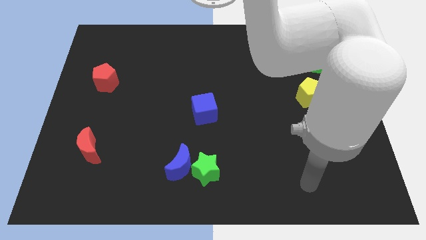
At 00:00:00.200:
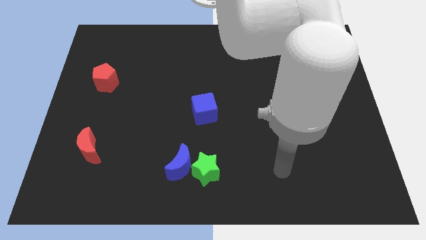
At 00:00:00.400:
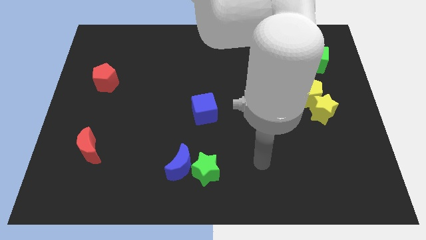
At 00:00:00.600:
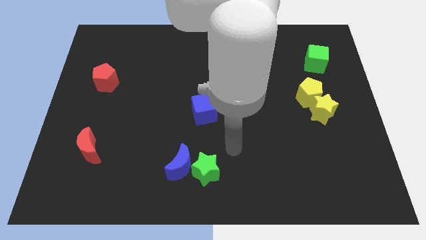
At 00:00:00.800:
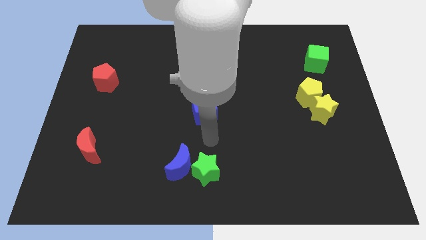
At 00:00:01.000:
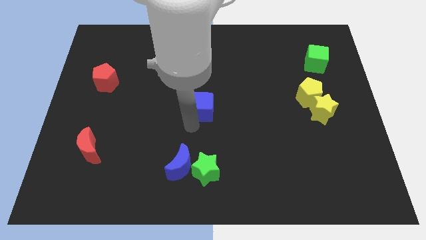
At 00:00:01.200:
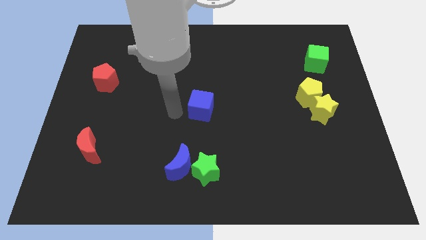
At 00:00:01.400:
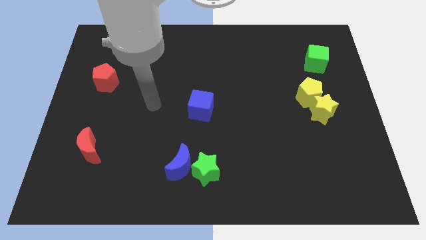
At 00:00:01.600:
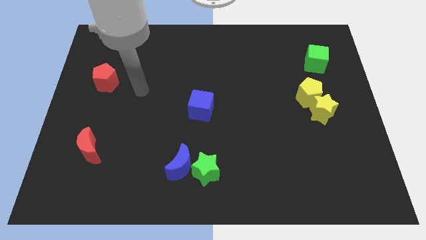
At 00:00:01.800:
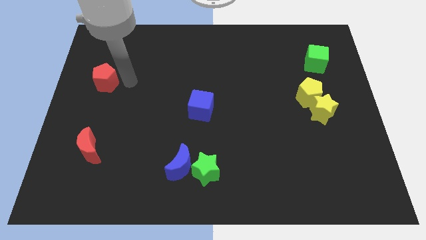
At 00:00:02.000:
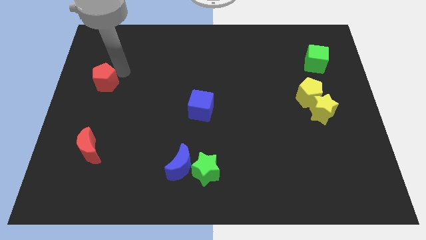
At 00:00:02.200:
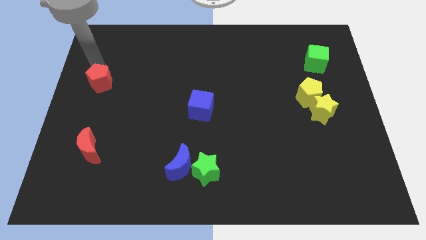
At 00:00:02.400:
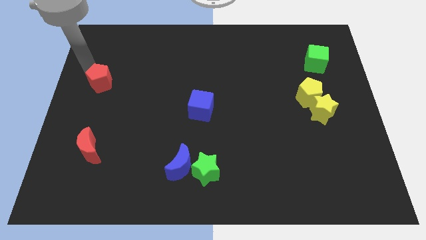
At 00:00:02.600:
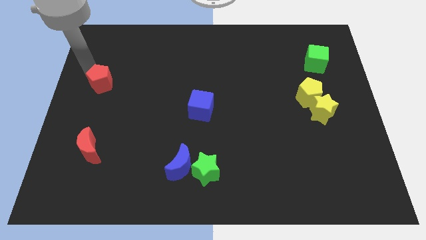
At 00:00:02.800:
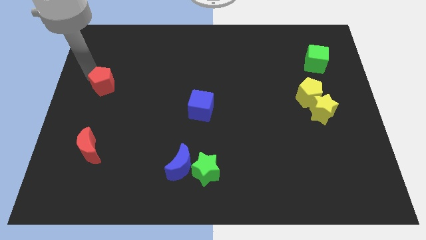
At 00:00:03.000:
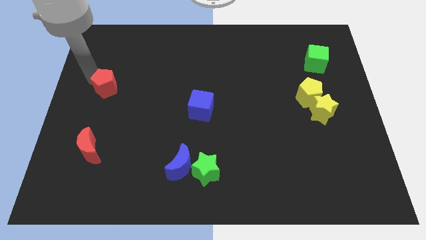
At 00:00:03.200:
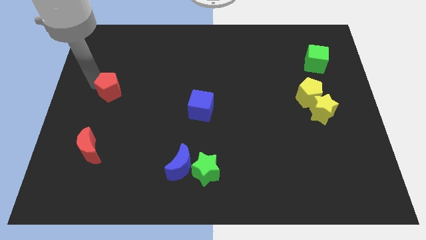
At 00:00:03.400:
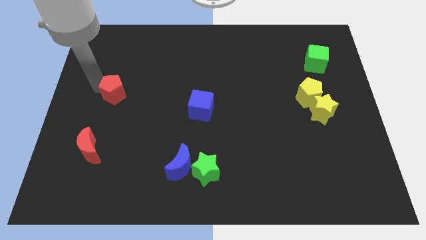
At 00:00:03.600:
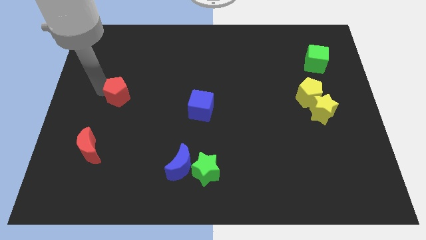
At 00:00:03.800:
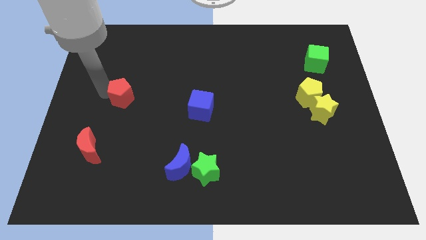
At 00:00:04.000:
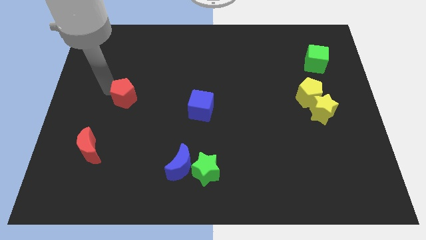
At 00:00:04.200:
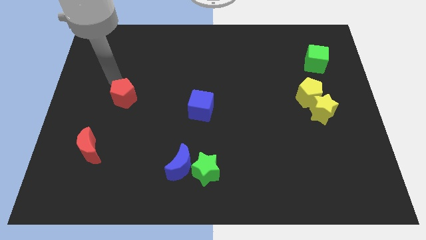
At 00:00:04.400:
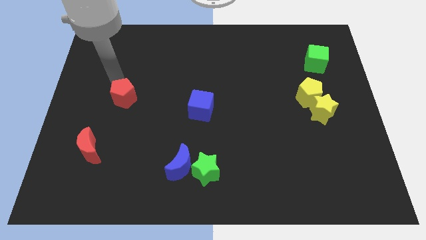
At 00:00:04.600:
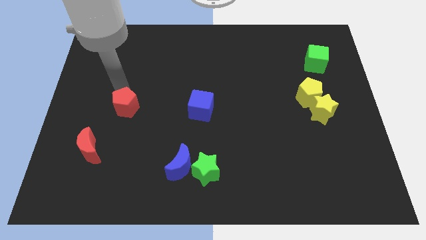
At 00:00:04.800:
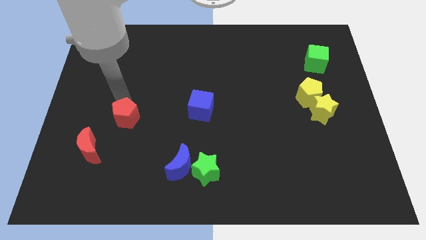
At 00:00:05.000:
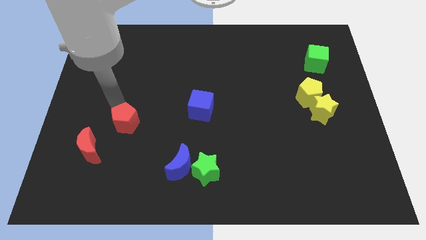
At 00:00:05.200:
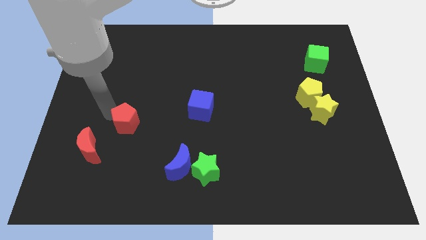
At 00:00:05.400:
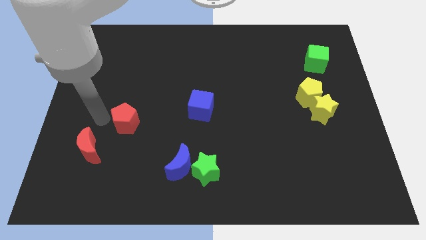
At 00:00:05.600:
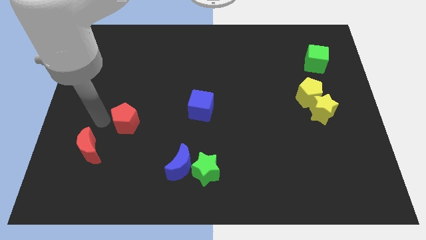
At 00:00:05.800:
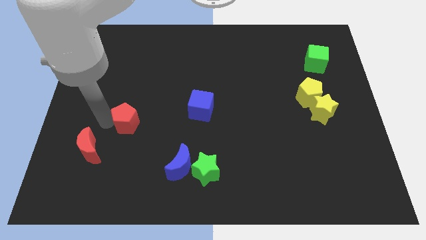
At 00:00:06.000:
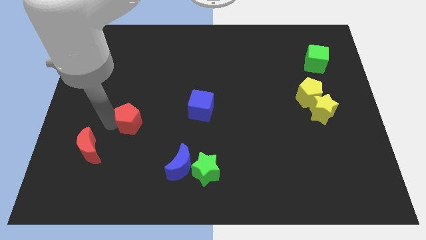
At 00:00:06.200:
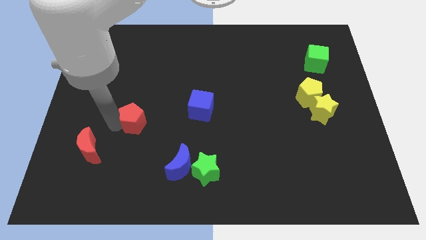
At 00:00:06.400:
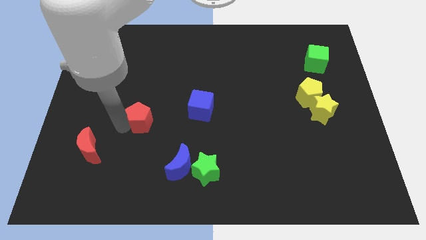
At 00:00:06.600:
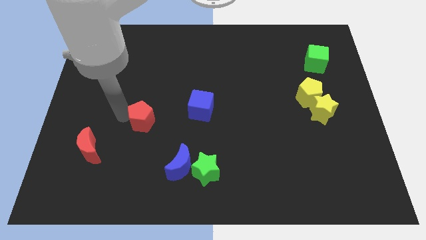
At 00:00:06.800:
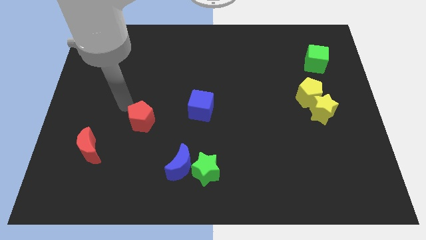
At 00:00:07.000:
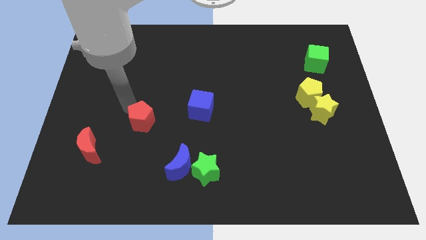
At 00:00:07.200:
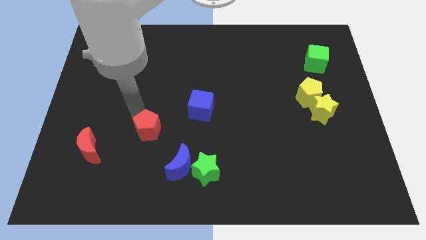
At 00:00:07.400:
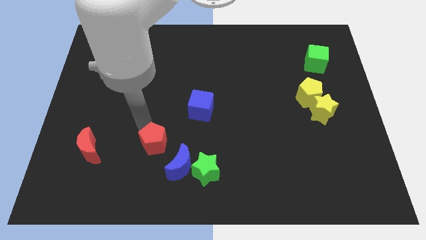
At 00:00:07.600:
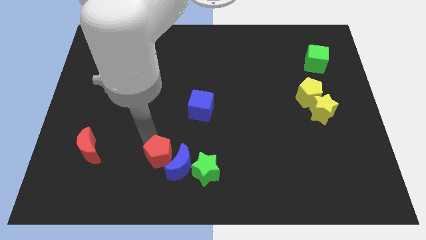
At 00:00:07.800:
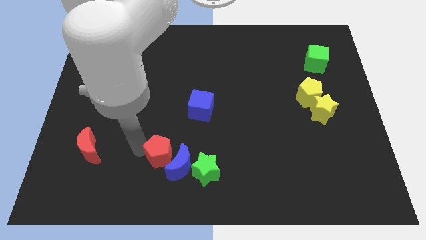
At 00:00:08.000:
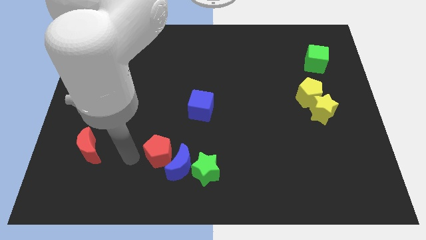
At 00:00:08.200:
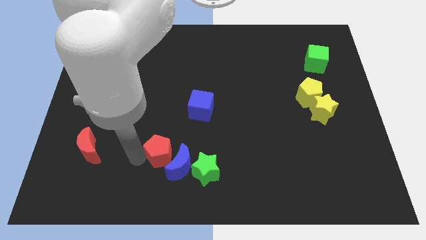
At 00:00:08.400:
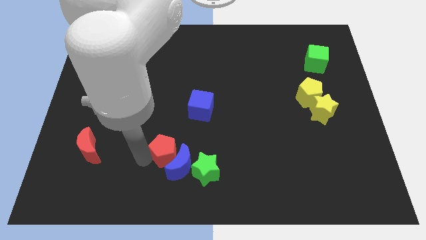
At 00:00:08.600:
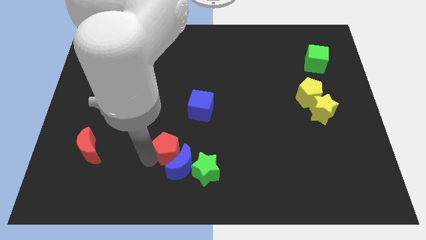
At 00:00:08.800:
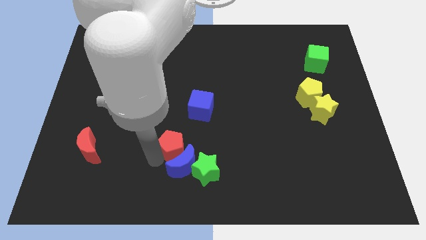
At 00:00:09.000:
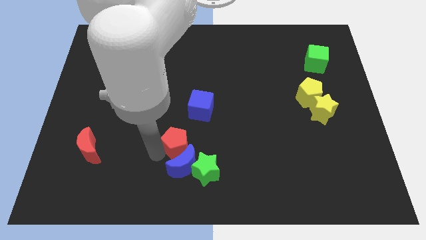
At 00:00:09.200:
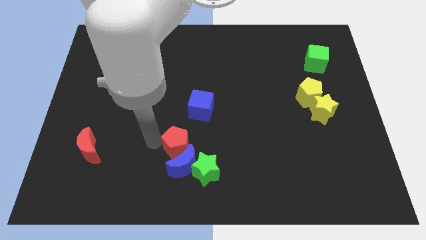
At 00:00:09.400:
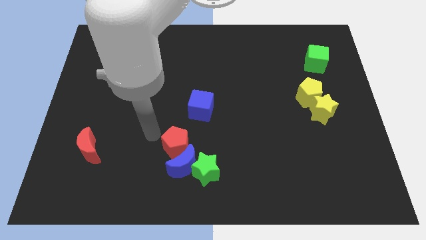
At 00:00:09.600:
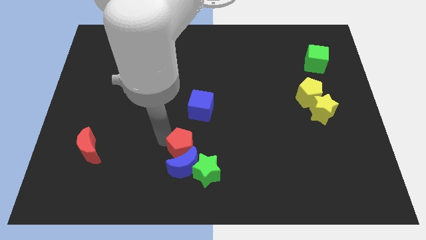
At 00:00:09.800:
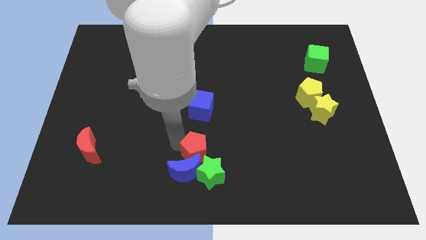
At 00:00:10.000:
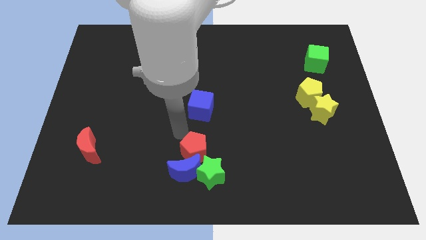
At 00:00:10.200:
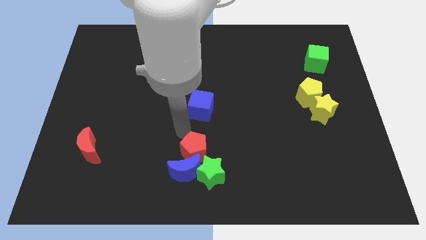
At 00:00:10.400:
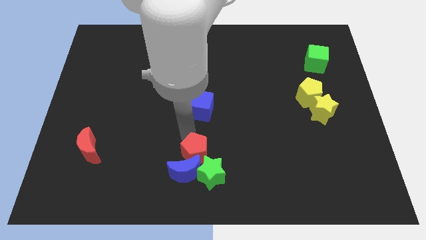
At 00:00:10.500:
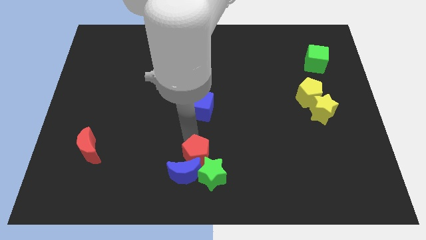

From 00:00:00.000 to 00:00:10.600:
put the red pentagon towards the green star

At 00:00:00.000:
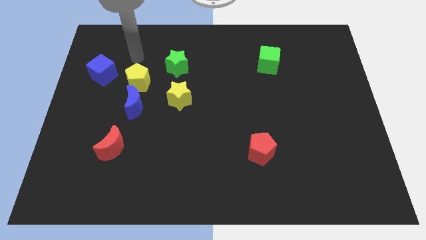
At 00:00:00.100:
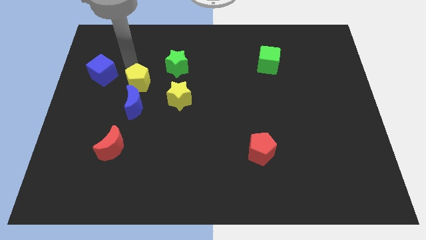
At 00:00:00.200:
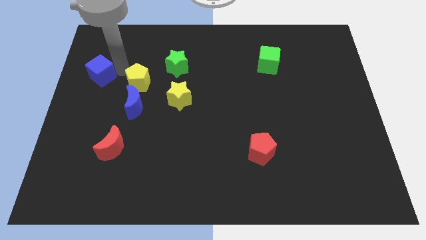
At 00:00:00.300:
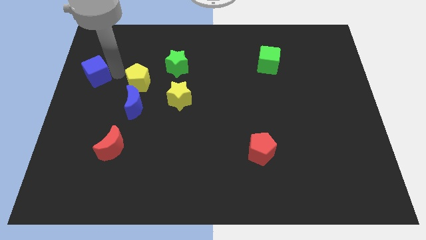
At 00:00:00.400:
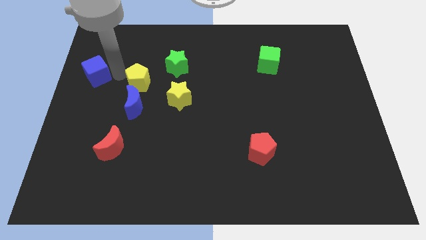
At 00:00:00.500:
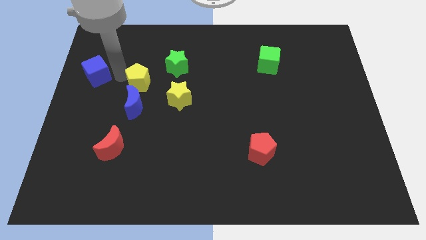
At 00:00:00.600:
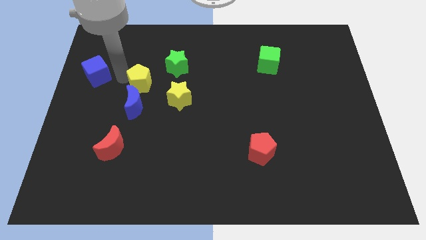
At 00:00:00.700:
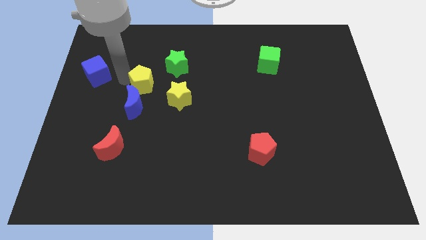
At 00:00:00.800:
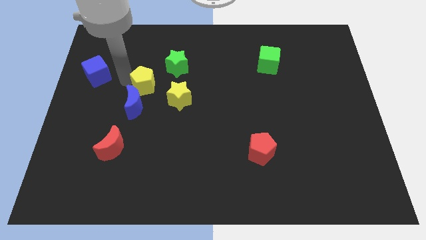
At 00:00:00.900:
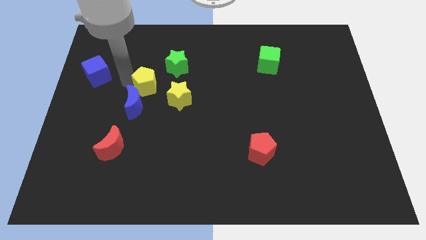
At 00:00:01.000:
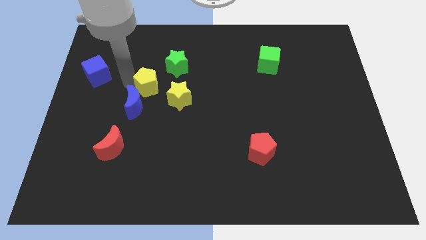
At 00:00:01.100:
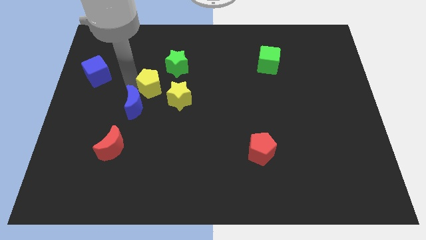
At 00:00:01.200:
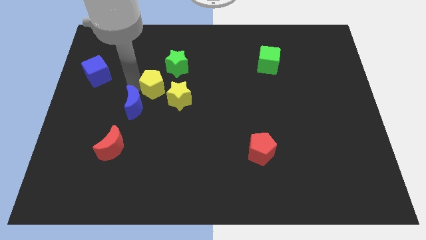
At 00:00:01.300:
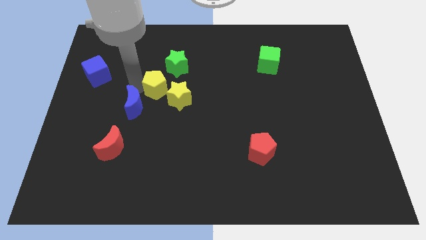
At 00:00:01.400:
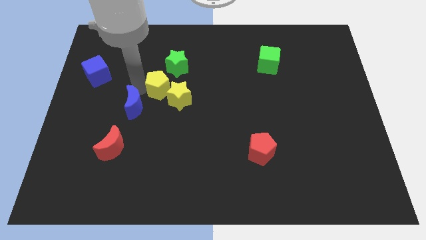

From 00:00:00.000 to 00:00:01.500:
move the yellow pentagon to the yellow star
